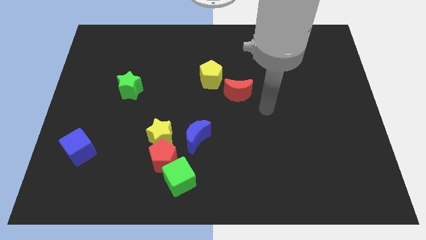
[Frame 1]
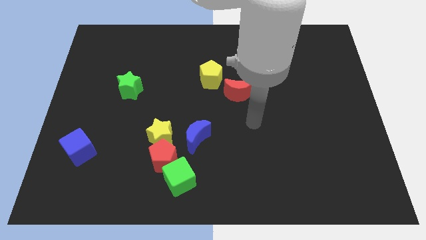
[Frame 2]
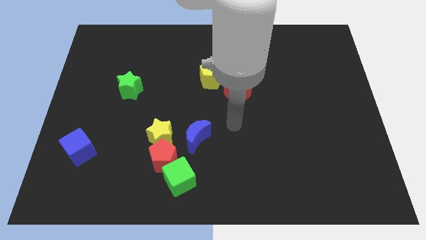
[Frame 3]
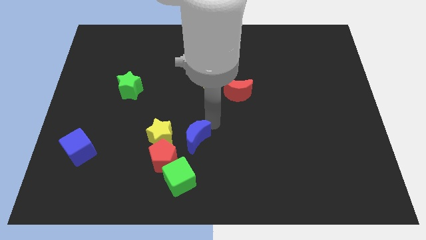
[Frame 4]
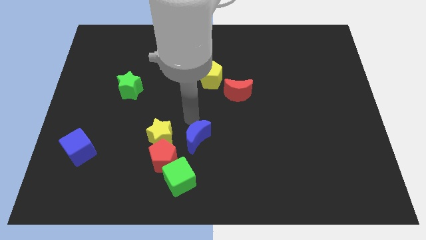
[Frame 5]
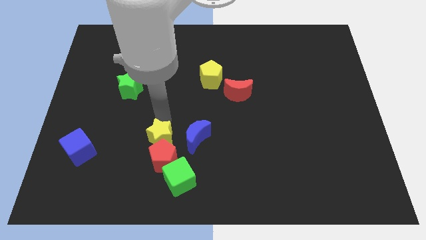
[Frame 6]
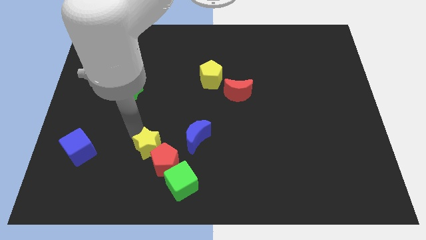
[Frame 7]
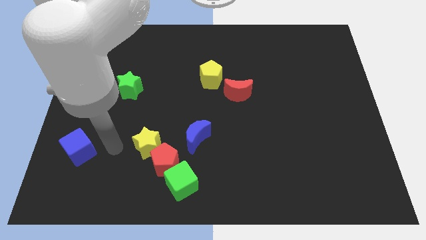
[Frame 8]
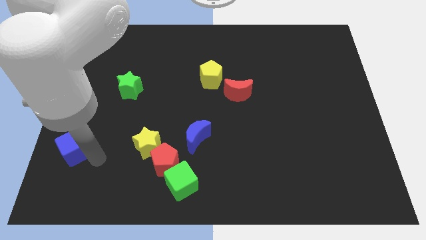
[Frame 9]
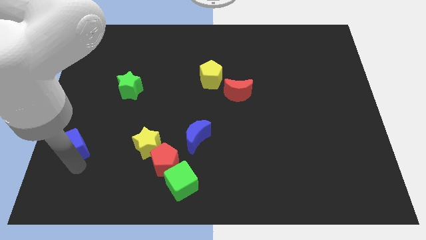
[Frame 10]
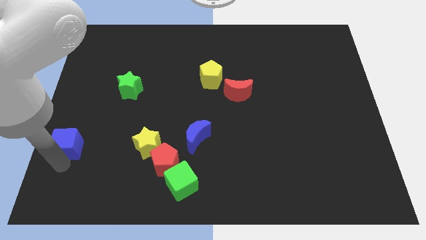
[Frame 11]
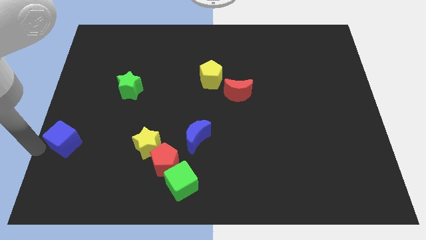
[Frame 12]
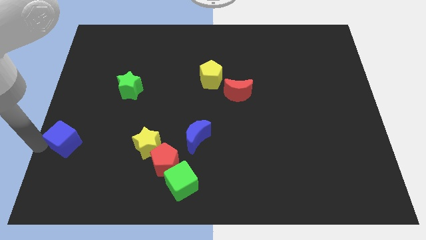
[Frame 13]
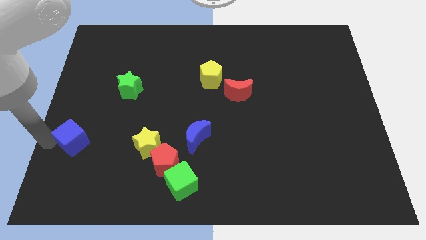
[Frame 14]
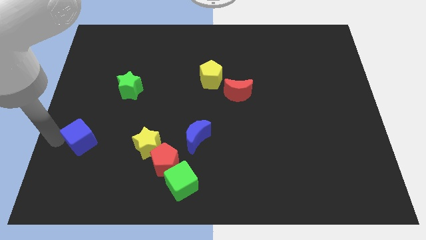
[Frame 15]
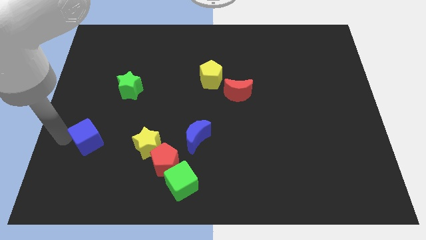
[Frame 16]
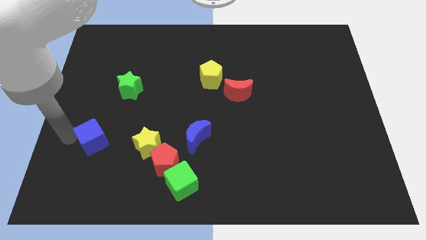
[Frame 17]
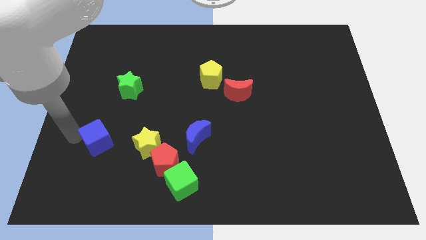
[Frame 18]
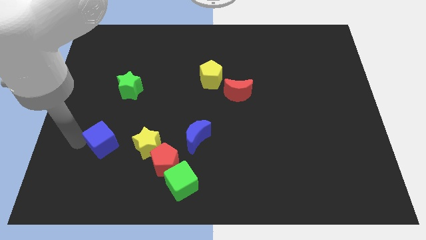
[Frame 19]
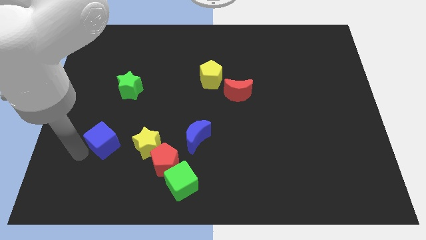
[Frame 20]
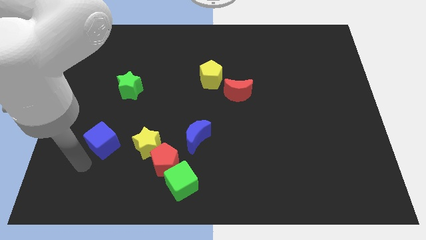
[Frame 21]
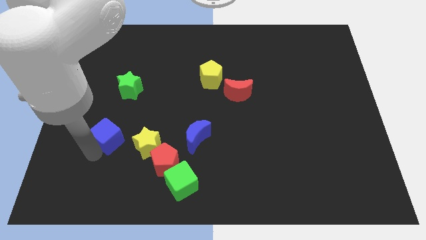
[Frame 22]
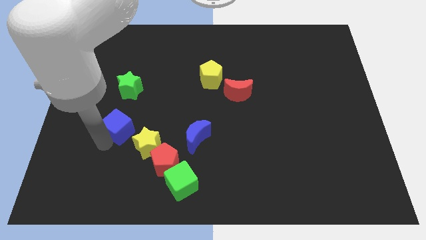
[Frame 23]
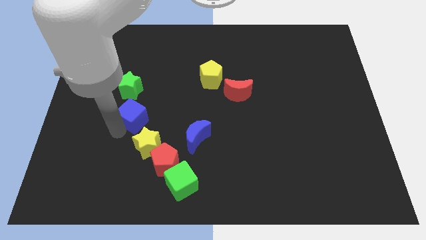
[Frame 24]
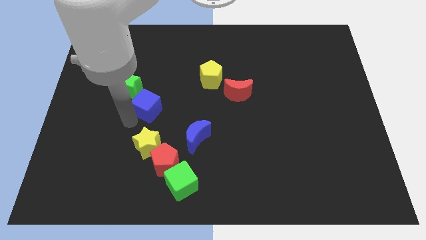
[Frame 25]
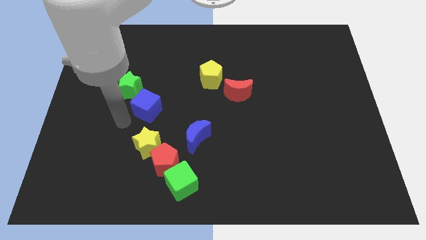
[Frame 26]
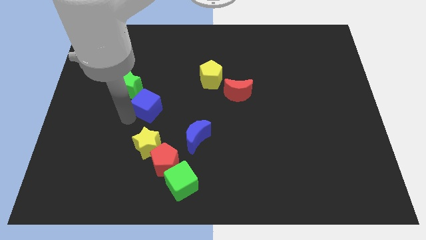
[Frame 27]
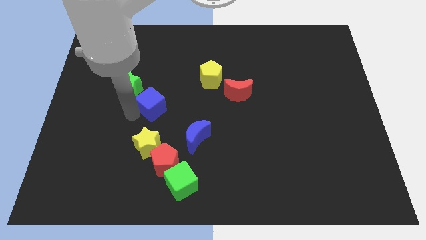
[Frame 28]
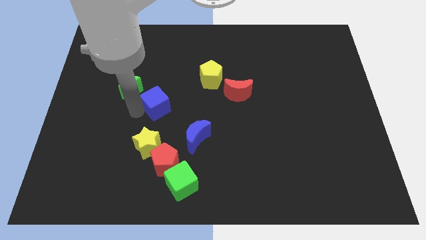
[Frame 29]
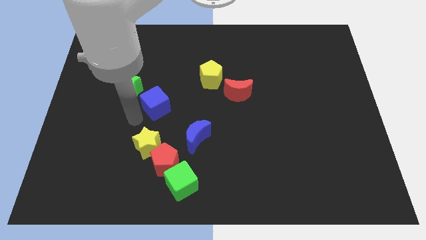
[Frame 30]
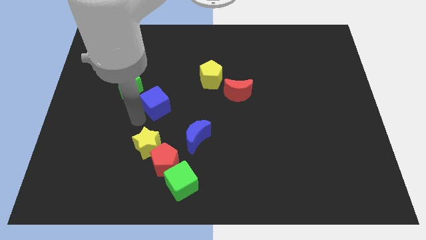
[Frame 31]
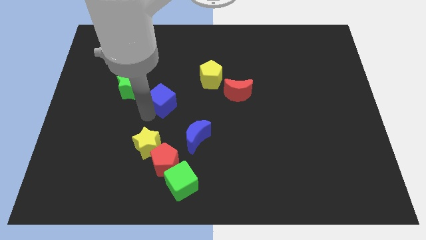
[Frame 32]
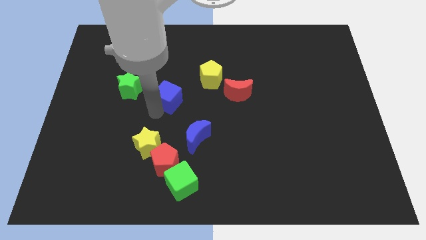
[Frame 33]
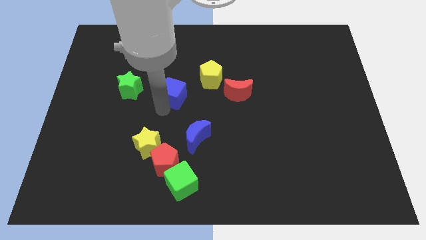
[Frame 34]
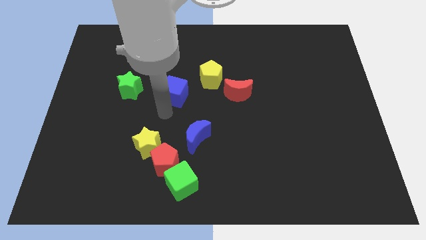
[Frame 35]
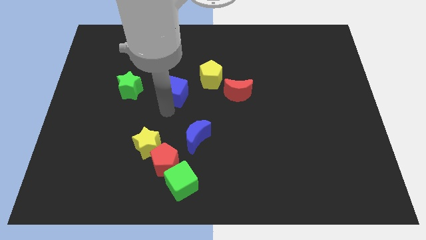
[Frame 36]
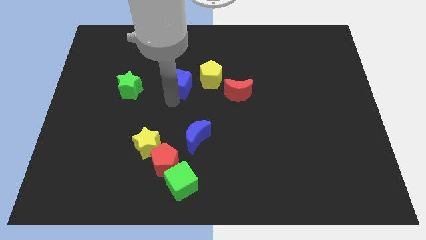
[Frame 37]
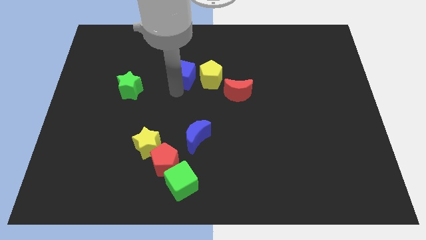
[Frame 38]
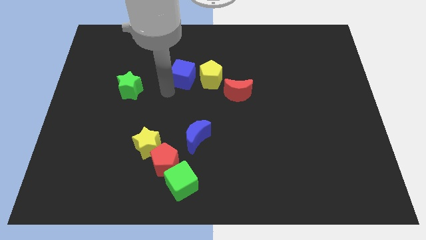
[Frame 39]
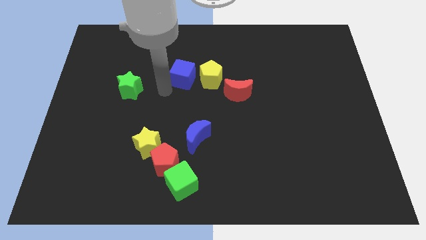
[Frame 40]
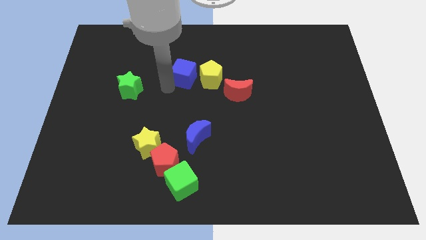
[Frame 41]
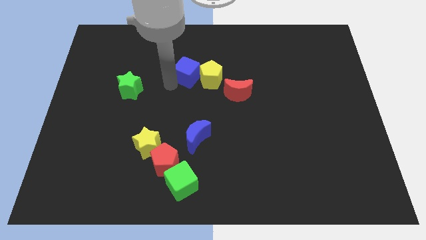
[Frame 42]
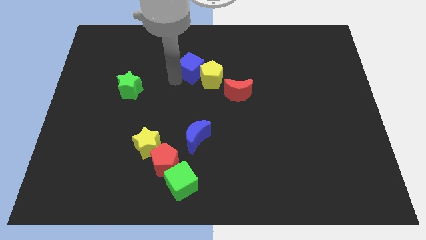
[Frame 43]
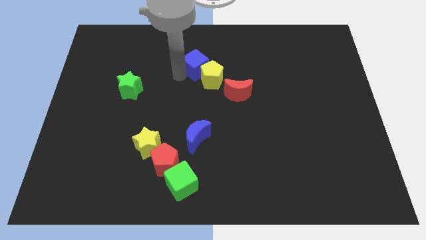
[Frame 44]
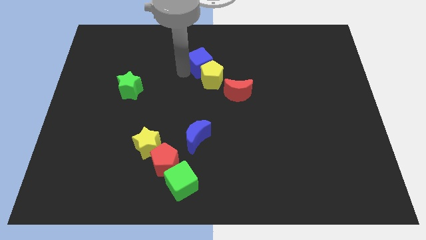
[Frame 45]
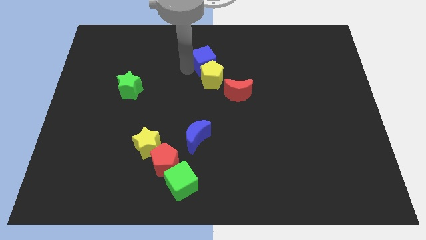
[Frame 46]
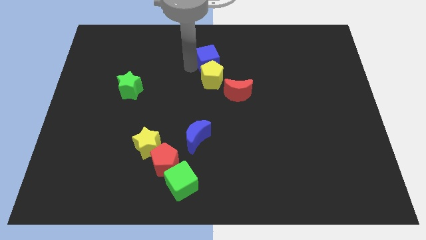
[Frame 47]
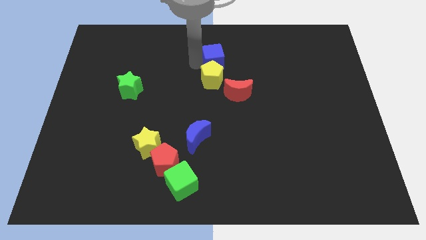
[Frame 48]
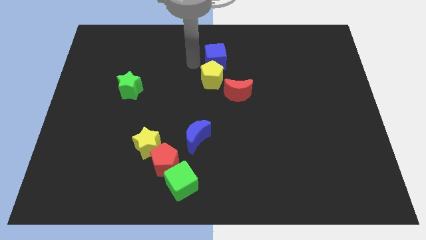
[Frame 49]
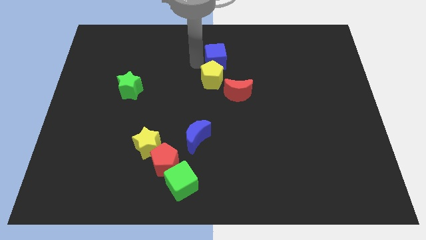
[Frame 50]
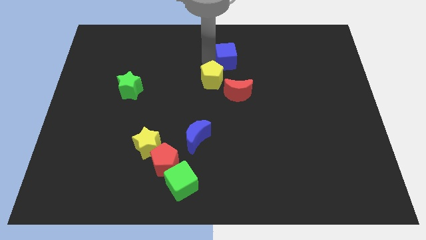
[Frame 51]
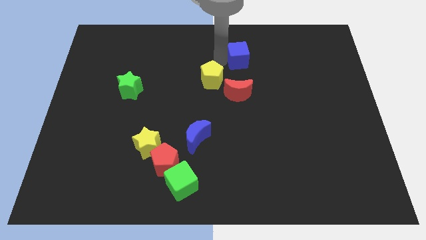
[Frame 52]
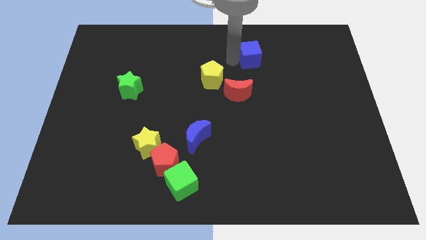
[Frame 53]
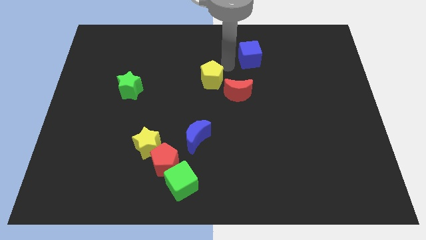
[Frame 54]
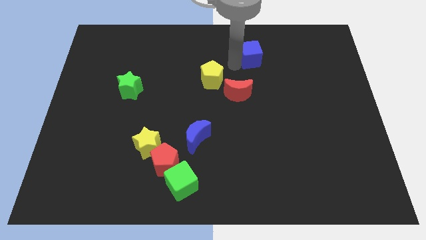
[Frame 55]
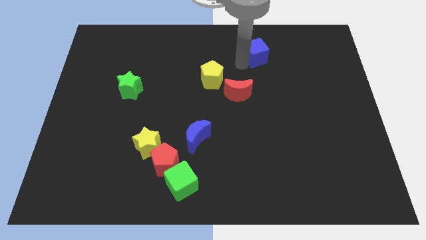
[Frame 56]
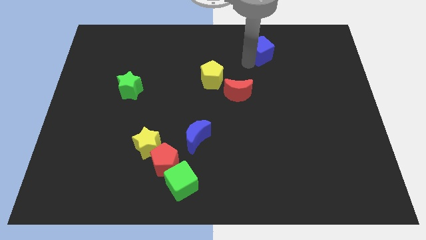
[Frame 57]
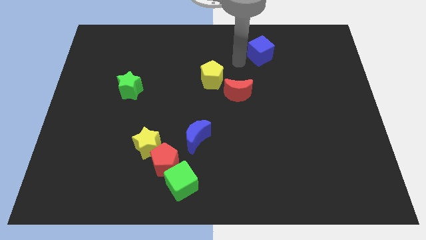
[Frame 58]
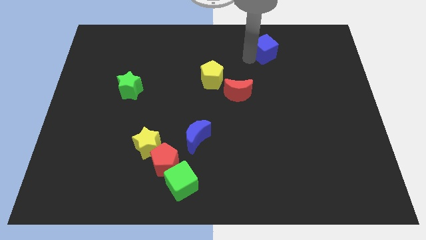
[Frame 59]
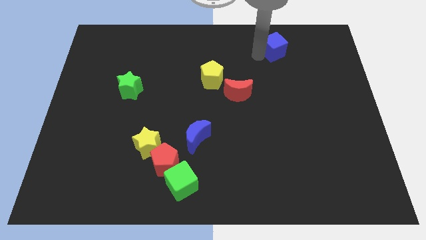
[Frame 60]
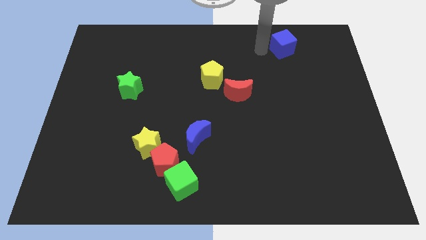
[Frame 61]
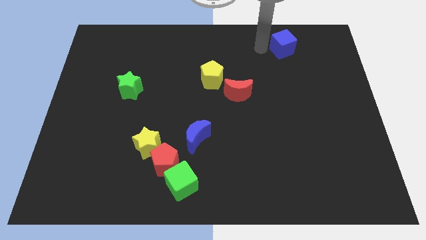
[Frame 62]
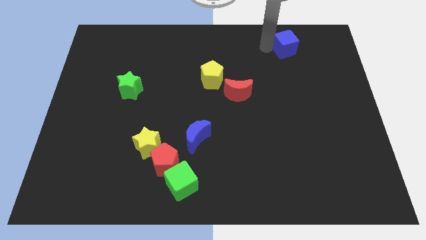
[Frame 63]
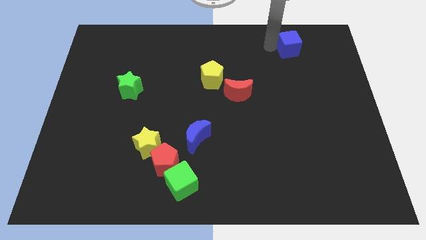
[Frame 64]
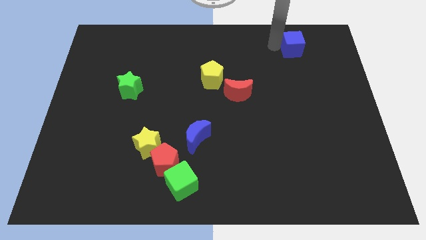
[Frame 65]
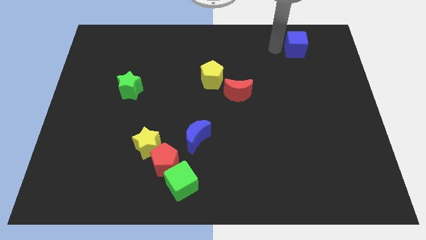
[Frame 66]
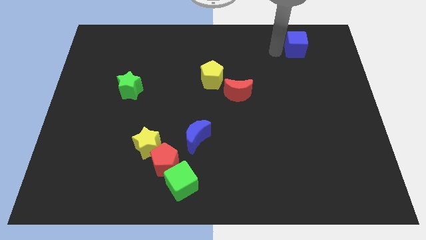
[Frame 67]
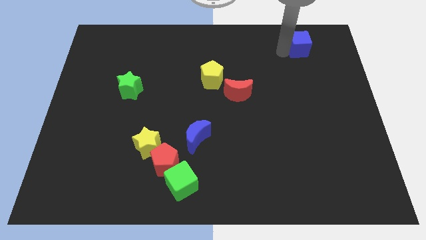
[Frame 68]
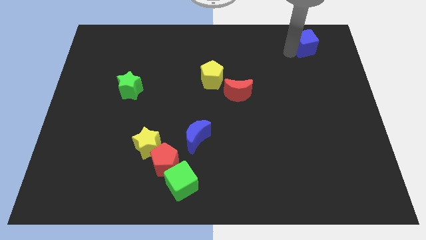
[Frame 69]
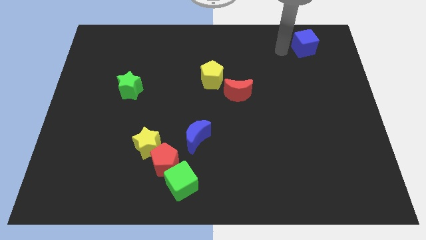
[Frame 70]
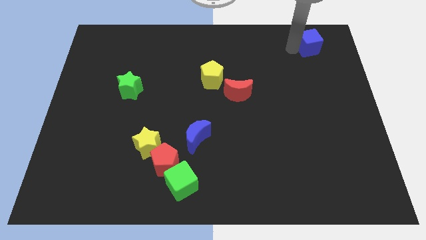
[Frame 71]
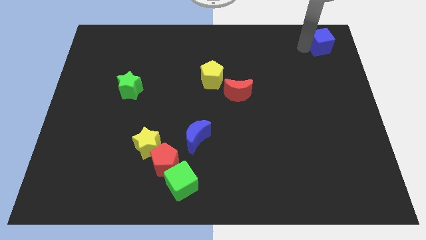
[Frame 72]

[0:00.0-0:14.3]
slide the blue cube to the top right
